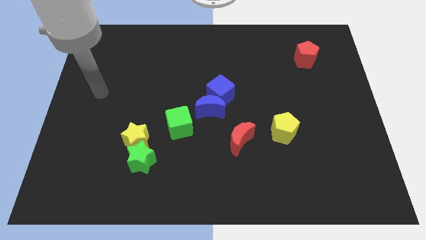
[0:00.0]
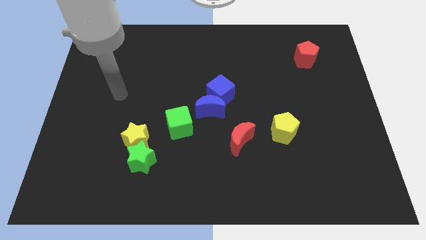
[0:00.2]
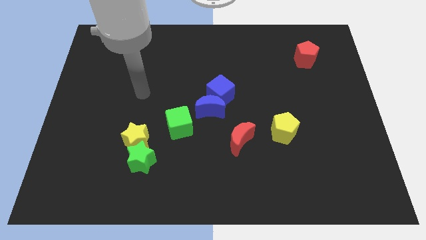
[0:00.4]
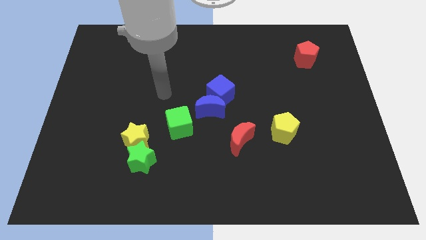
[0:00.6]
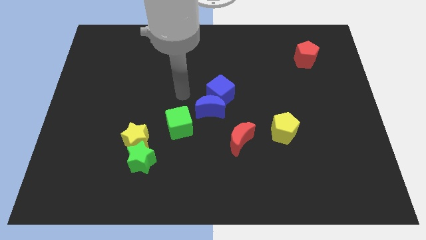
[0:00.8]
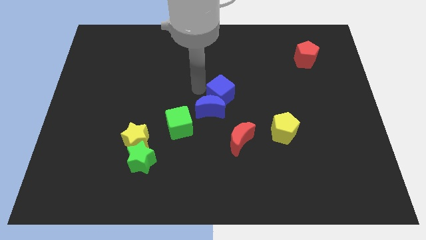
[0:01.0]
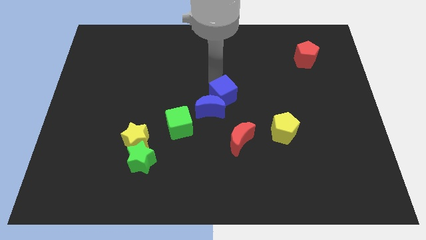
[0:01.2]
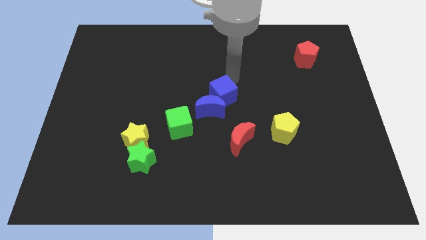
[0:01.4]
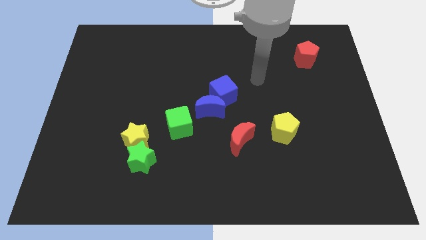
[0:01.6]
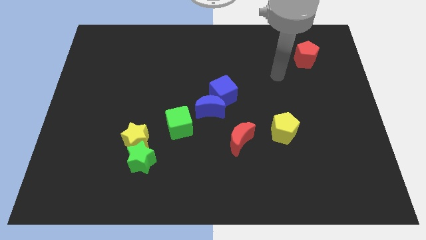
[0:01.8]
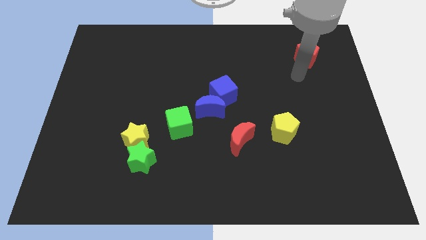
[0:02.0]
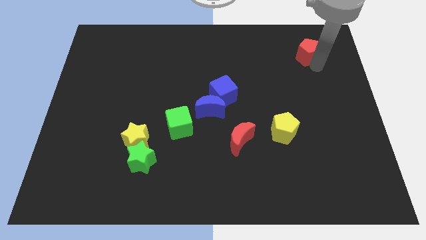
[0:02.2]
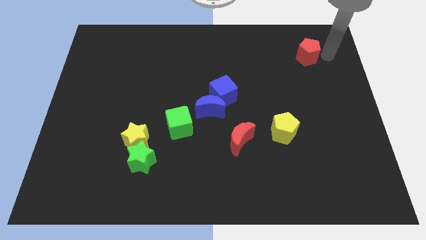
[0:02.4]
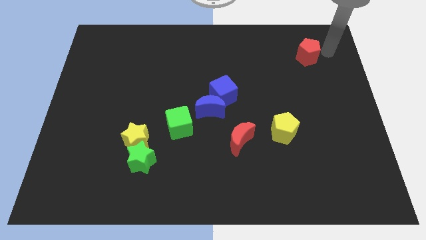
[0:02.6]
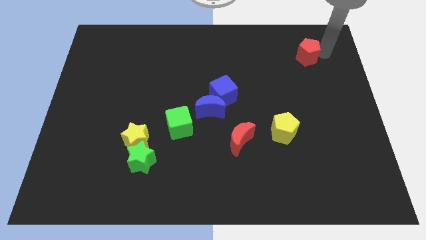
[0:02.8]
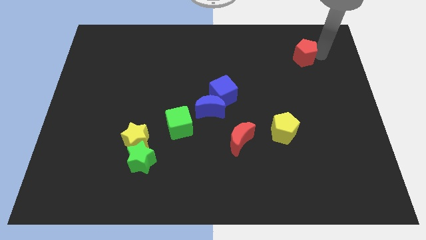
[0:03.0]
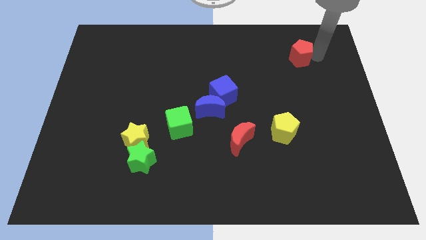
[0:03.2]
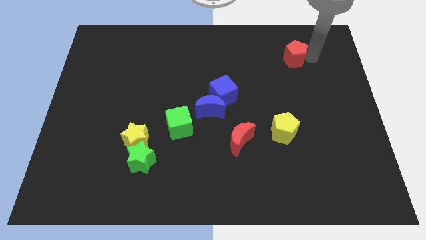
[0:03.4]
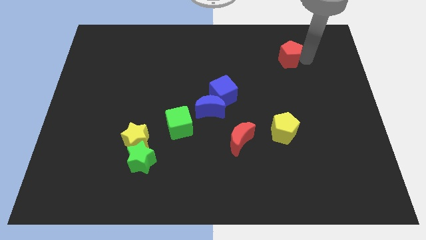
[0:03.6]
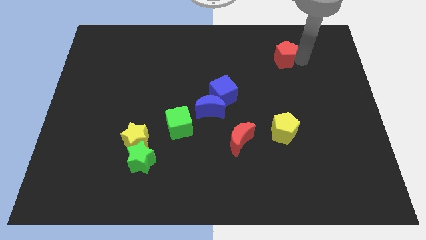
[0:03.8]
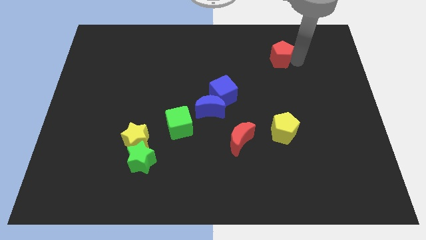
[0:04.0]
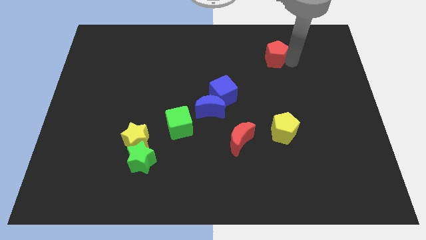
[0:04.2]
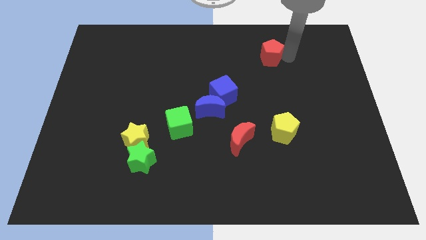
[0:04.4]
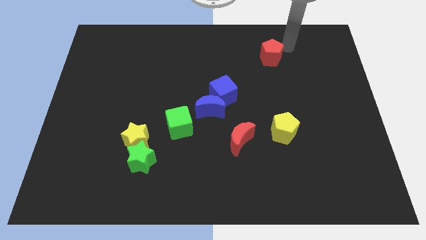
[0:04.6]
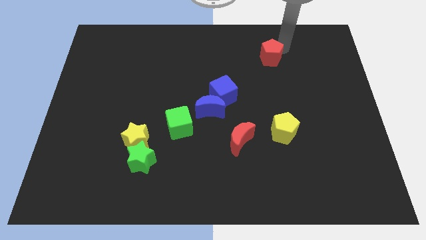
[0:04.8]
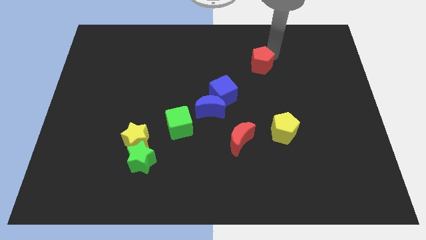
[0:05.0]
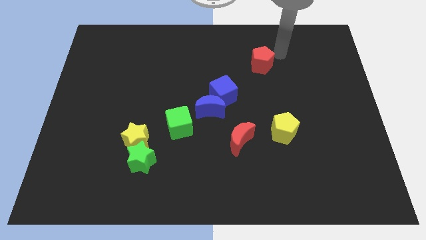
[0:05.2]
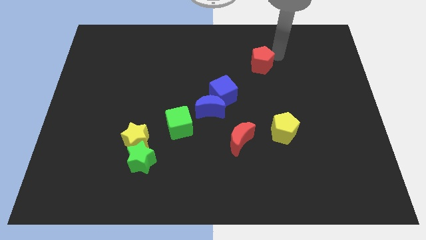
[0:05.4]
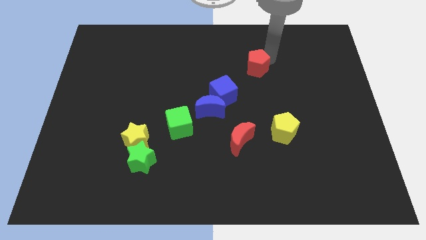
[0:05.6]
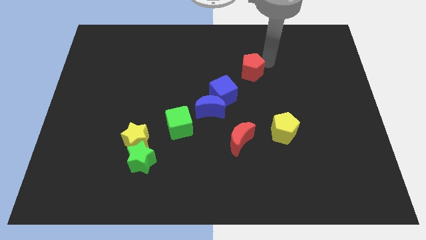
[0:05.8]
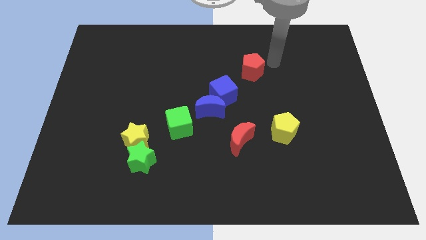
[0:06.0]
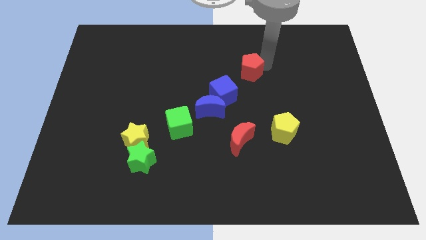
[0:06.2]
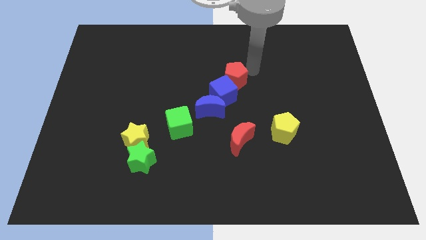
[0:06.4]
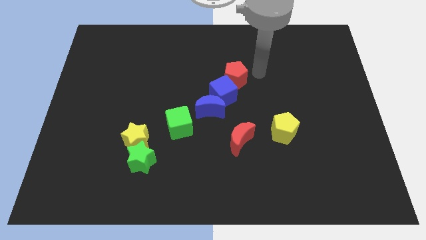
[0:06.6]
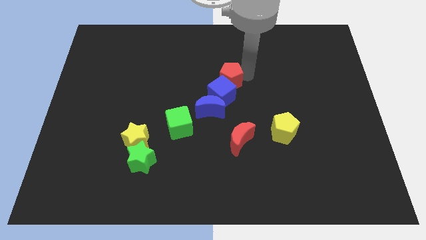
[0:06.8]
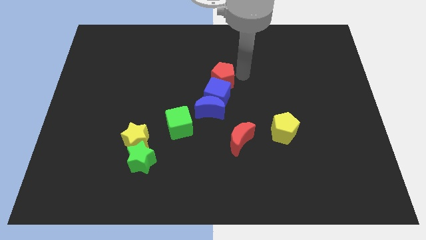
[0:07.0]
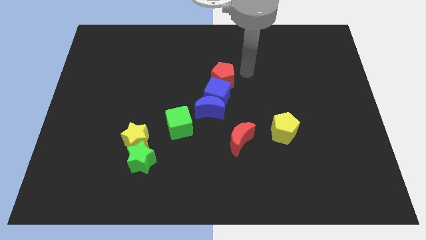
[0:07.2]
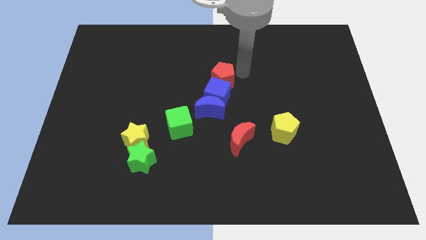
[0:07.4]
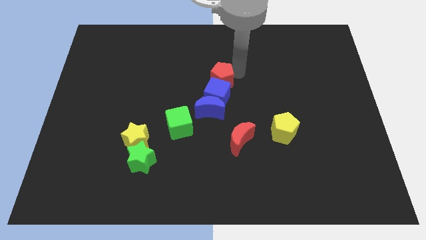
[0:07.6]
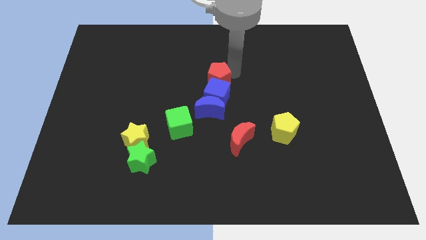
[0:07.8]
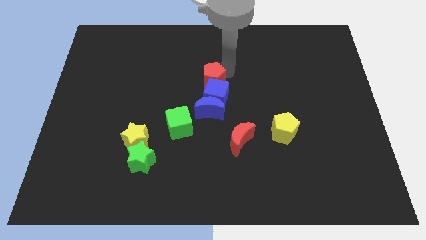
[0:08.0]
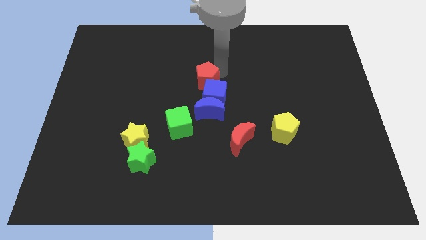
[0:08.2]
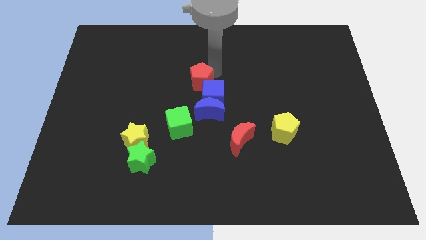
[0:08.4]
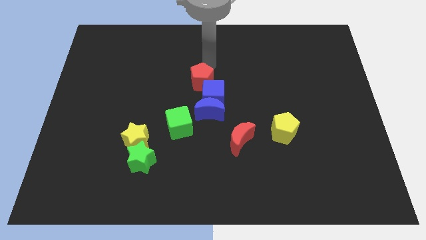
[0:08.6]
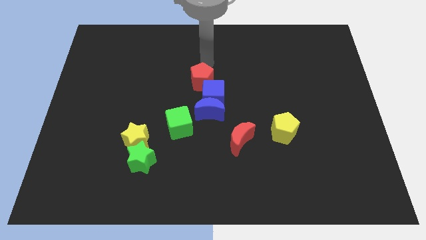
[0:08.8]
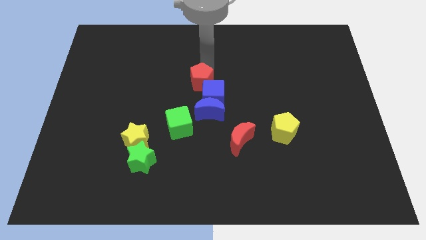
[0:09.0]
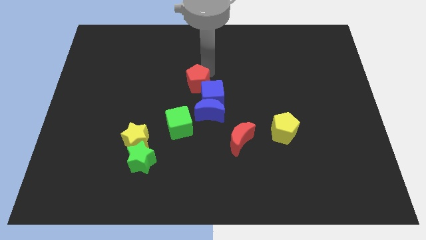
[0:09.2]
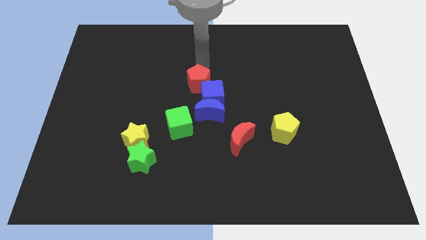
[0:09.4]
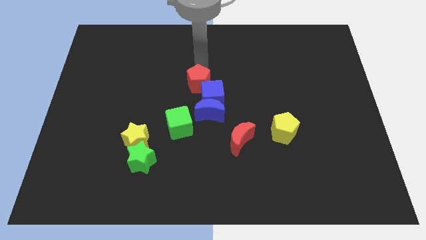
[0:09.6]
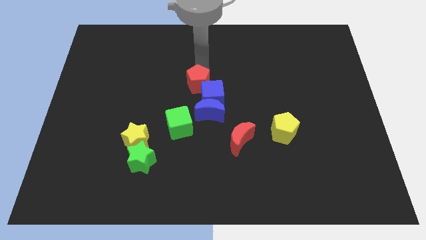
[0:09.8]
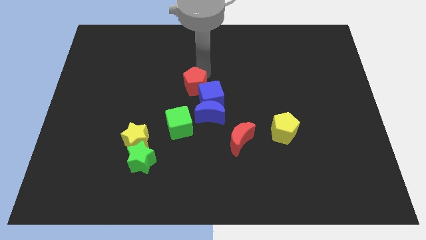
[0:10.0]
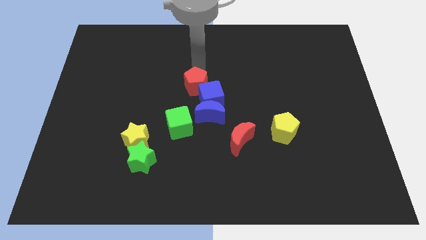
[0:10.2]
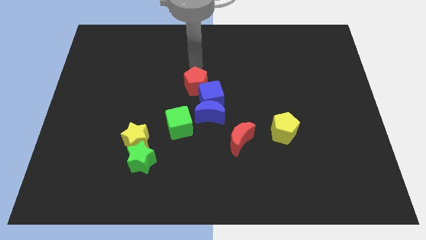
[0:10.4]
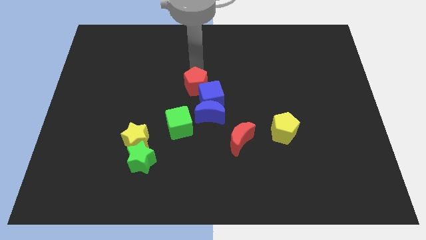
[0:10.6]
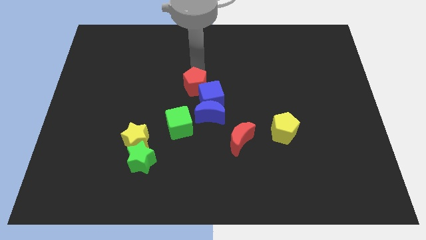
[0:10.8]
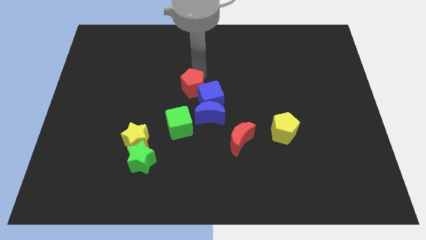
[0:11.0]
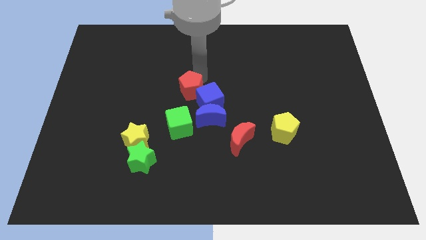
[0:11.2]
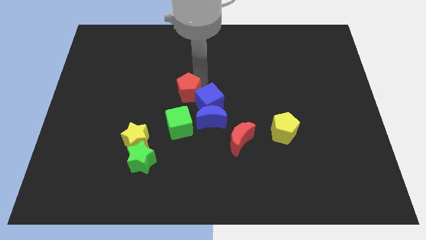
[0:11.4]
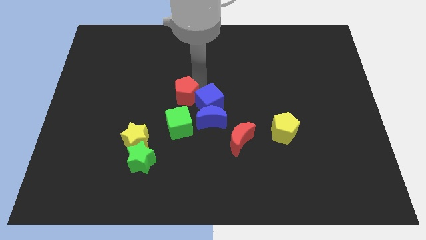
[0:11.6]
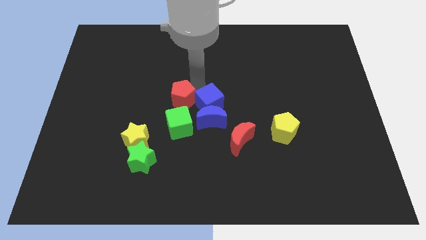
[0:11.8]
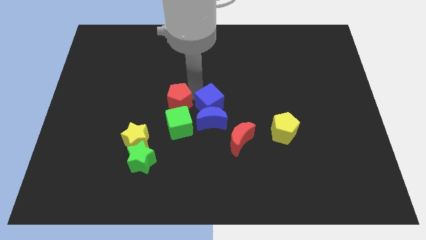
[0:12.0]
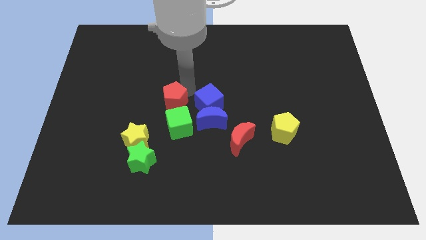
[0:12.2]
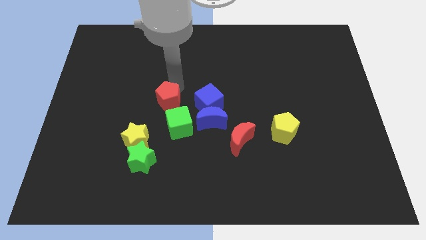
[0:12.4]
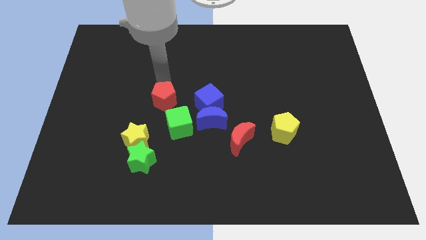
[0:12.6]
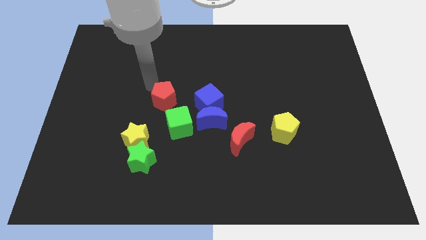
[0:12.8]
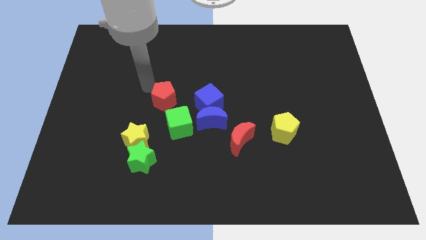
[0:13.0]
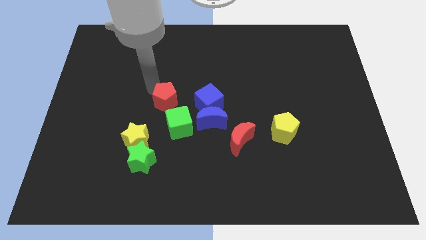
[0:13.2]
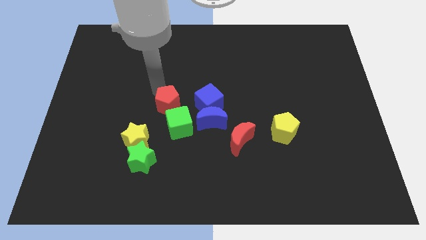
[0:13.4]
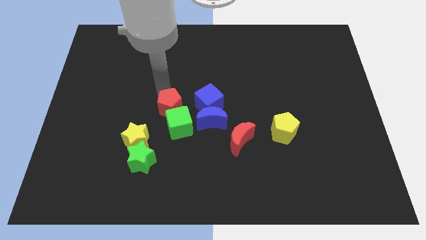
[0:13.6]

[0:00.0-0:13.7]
push the red pentagon towards the green cube

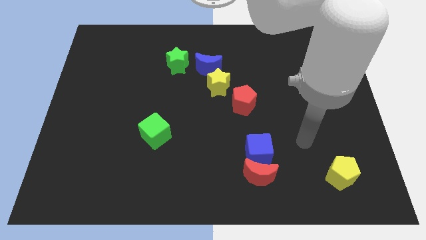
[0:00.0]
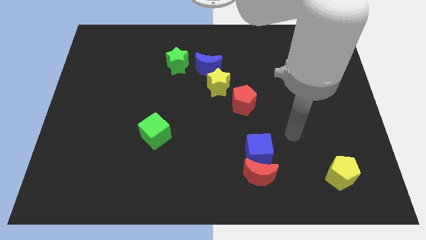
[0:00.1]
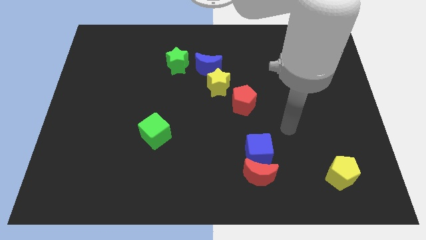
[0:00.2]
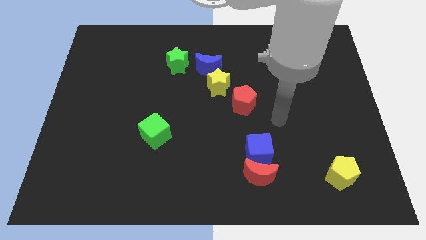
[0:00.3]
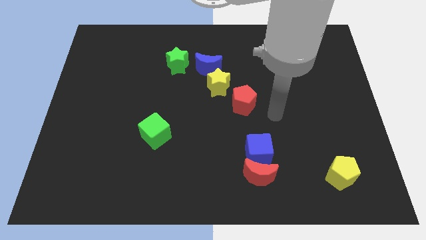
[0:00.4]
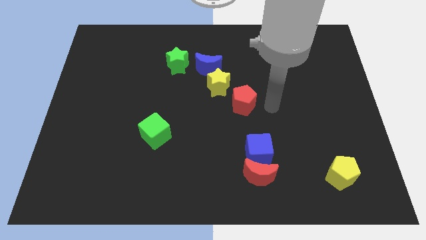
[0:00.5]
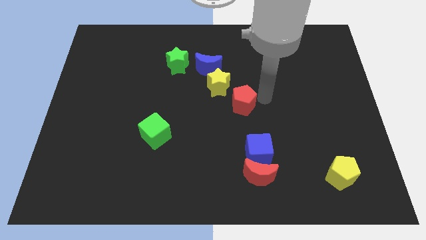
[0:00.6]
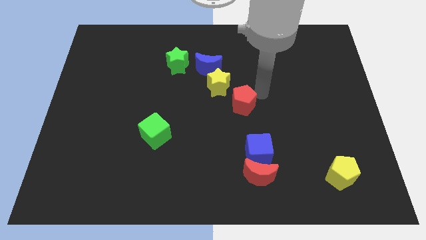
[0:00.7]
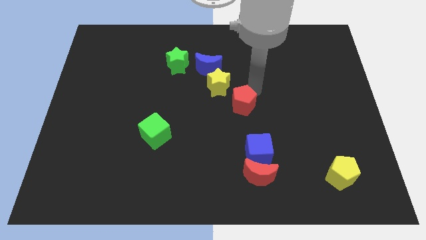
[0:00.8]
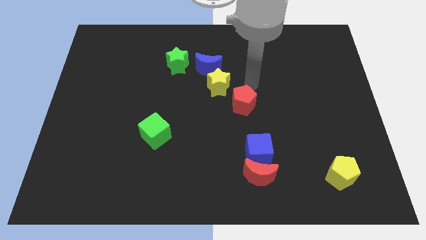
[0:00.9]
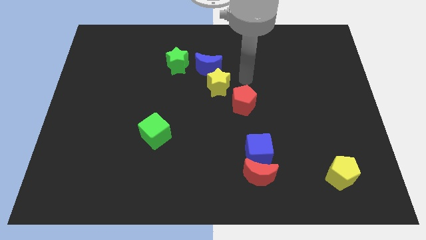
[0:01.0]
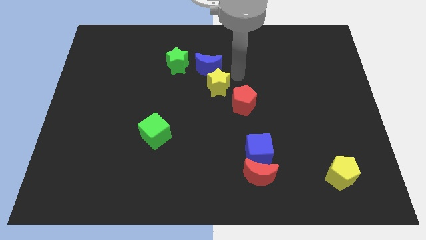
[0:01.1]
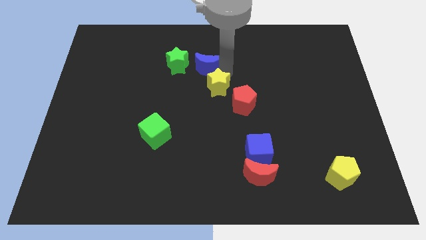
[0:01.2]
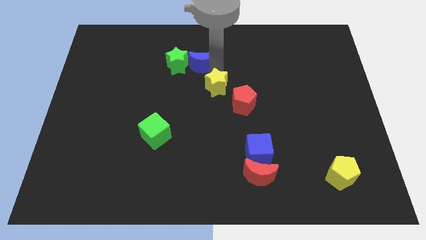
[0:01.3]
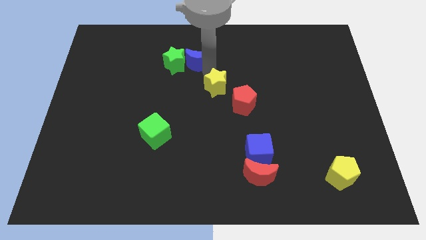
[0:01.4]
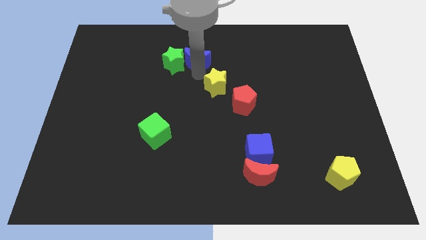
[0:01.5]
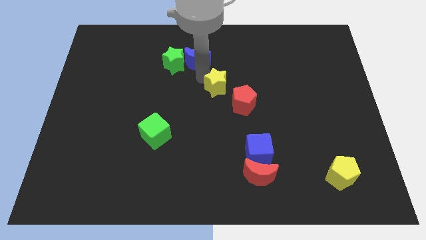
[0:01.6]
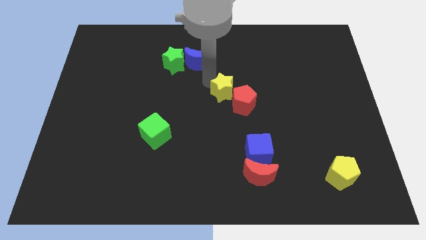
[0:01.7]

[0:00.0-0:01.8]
push the yellow star to the red pentagon
